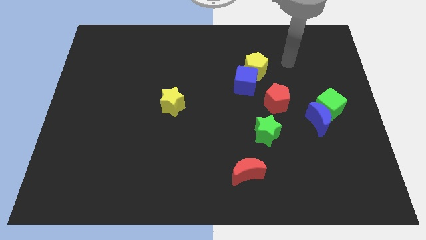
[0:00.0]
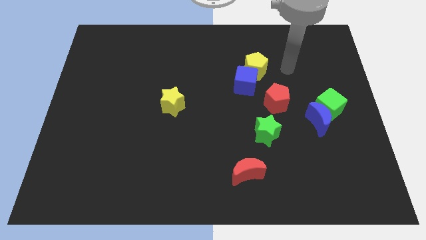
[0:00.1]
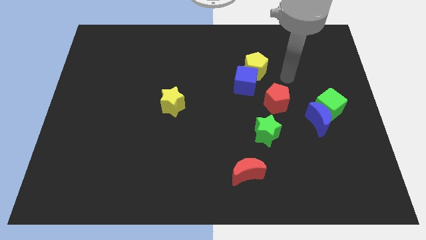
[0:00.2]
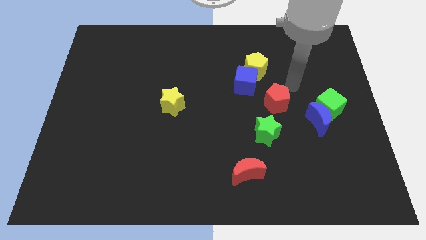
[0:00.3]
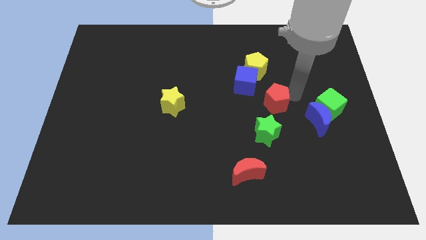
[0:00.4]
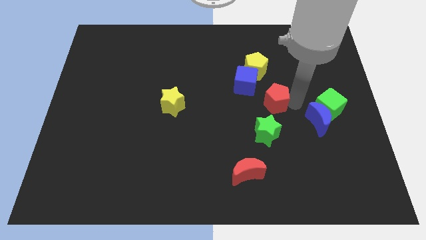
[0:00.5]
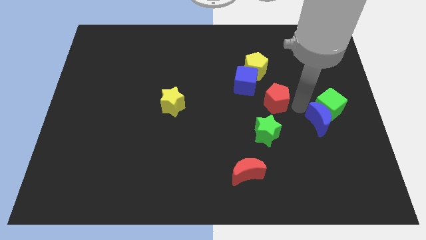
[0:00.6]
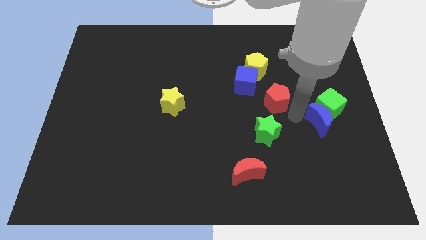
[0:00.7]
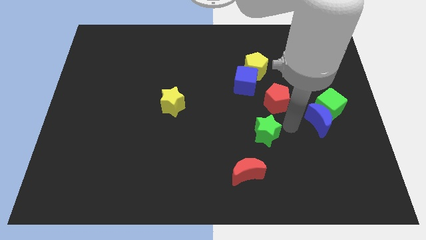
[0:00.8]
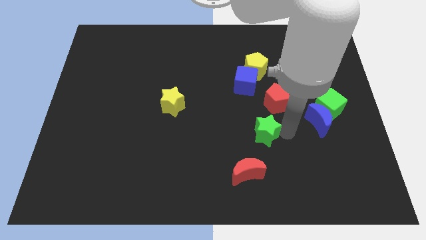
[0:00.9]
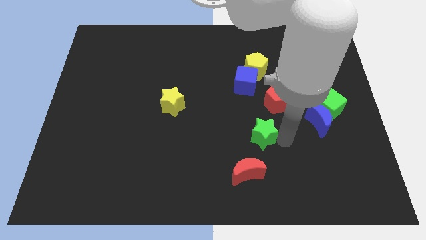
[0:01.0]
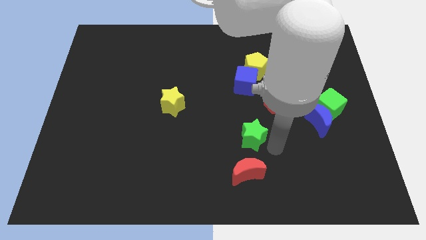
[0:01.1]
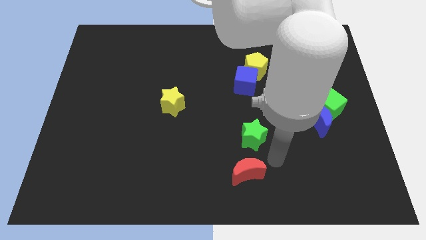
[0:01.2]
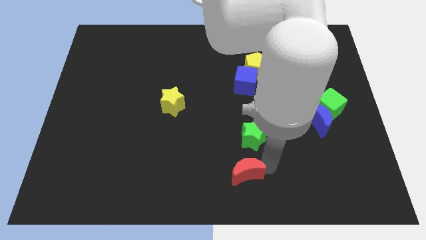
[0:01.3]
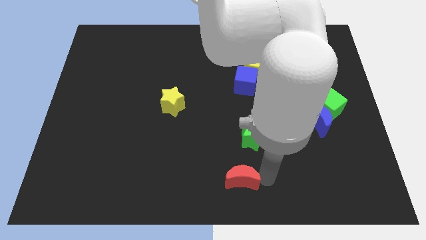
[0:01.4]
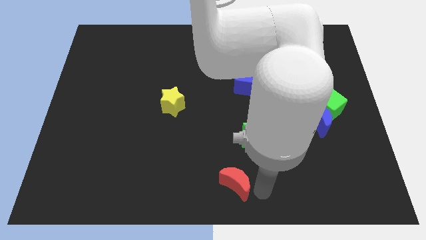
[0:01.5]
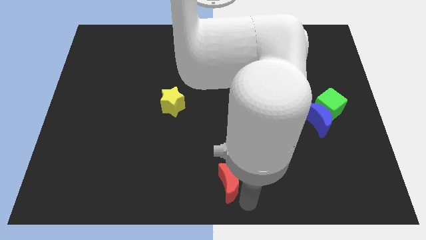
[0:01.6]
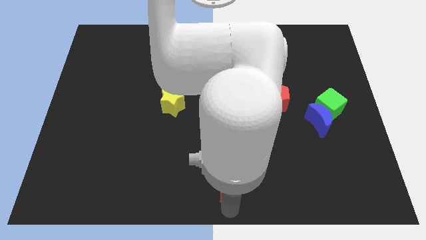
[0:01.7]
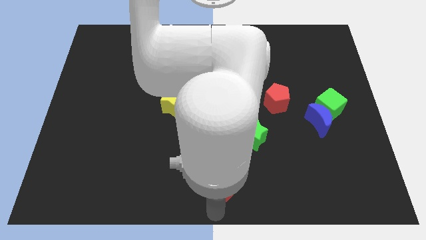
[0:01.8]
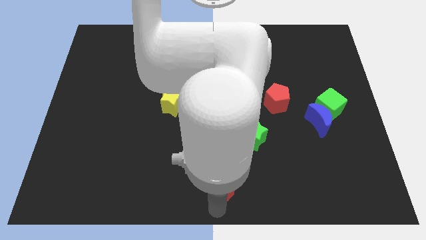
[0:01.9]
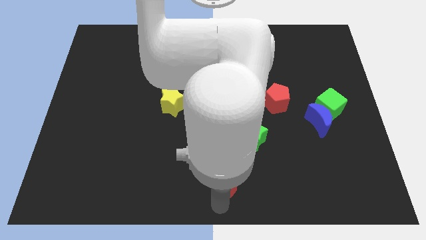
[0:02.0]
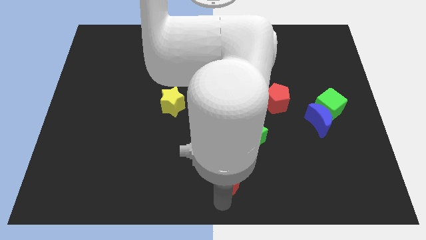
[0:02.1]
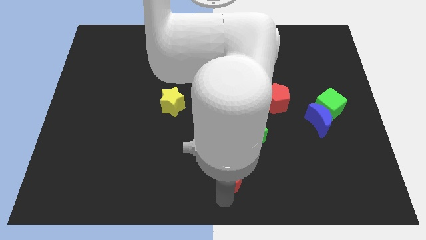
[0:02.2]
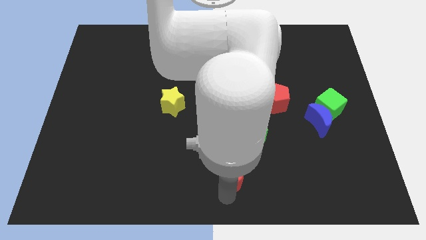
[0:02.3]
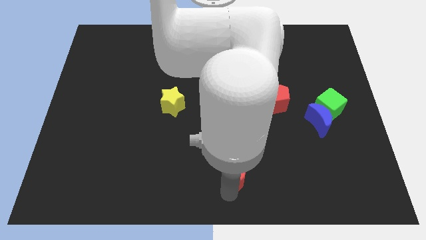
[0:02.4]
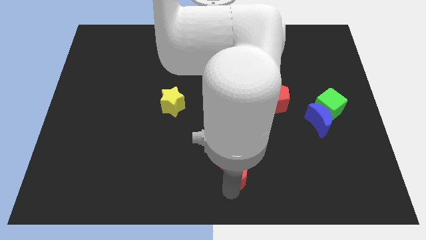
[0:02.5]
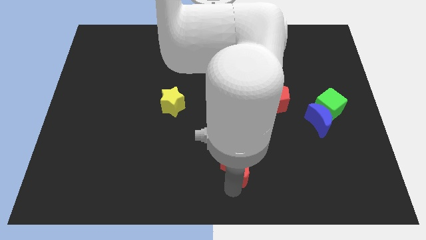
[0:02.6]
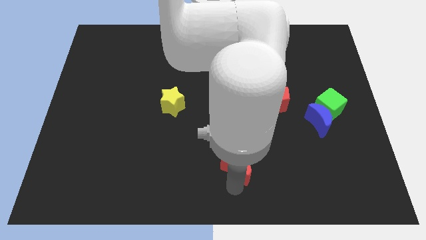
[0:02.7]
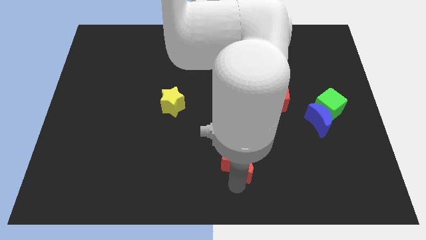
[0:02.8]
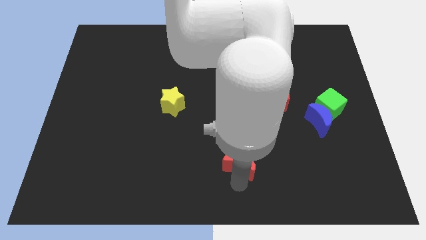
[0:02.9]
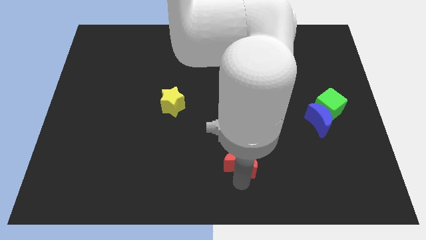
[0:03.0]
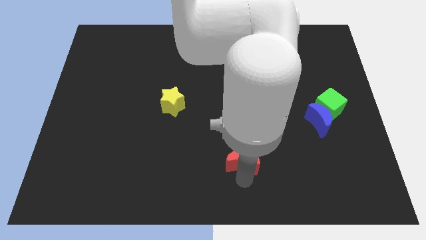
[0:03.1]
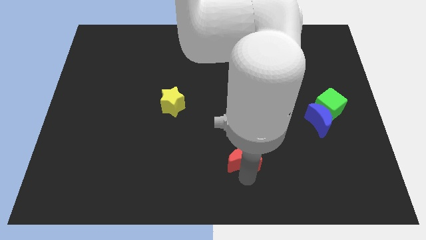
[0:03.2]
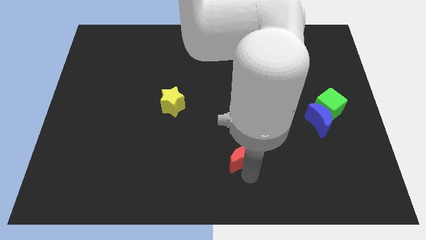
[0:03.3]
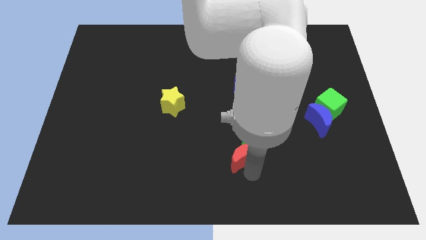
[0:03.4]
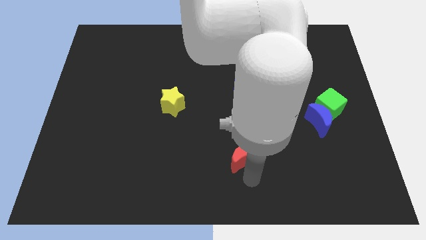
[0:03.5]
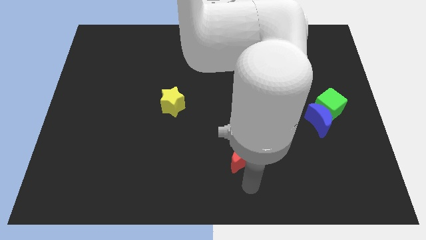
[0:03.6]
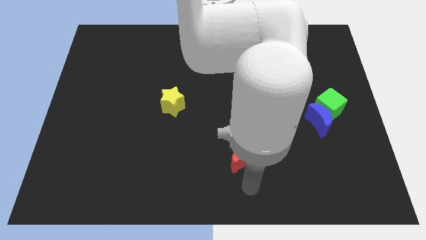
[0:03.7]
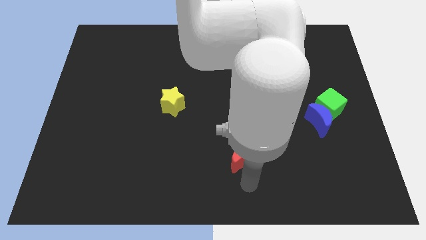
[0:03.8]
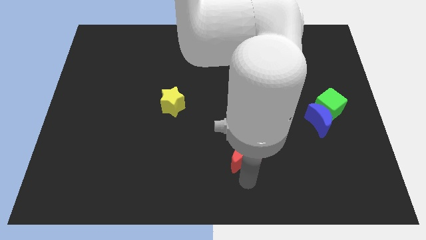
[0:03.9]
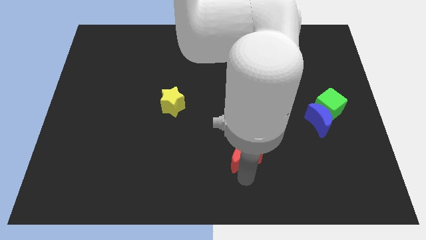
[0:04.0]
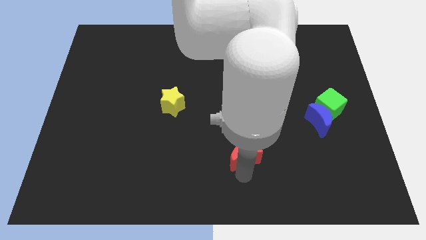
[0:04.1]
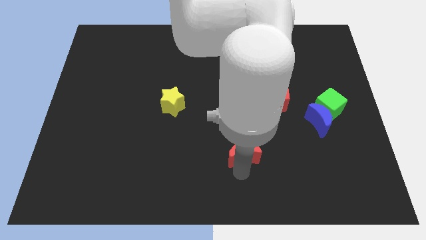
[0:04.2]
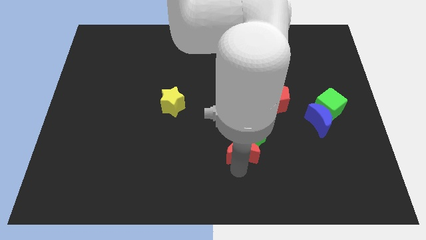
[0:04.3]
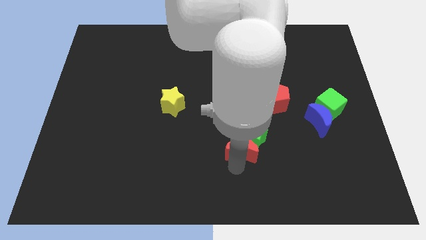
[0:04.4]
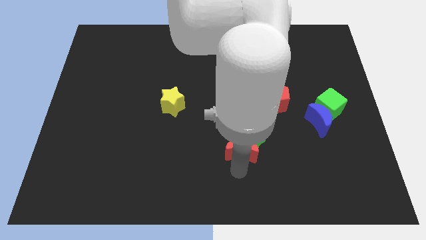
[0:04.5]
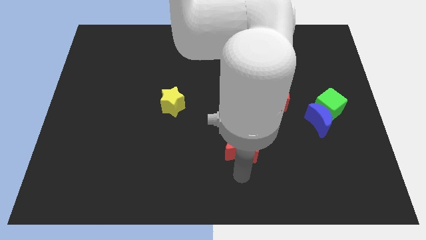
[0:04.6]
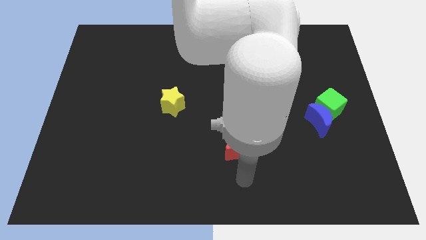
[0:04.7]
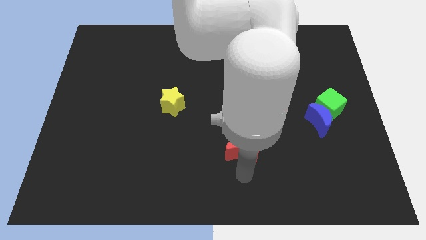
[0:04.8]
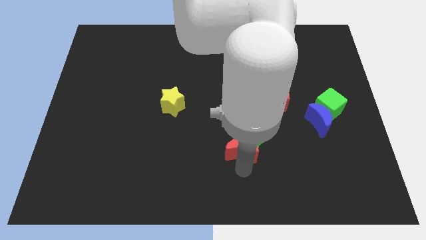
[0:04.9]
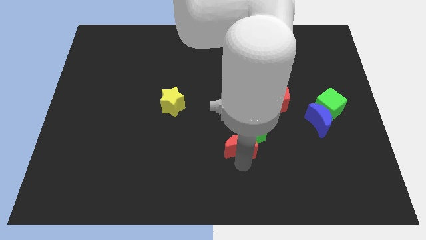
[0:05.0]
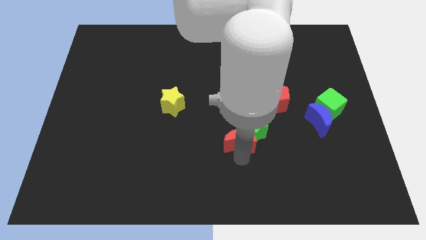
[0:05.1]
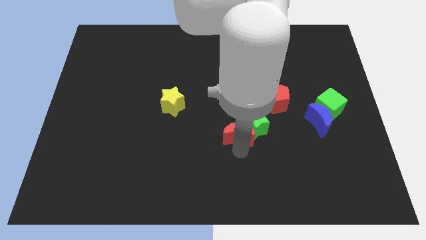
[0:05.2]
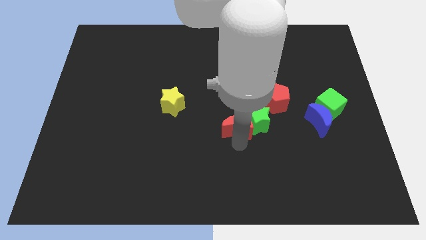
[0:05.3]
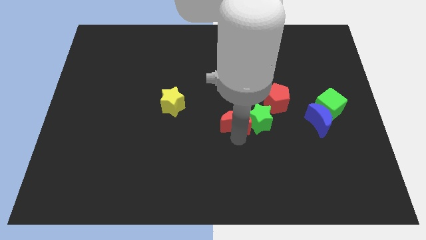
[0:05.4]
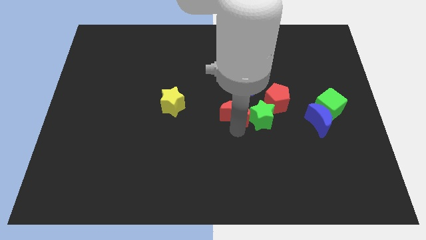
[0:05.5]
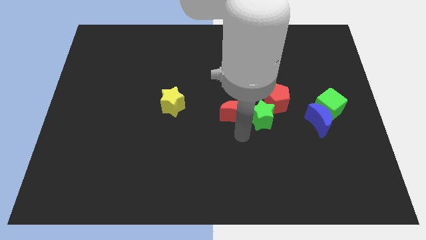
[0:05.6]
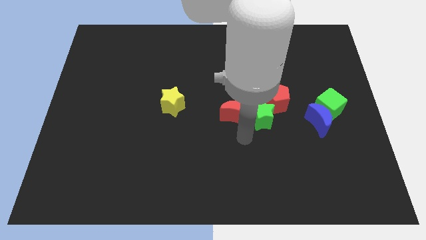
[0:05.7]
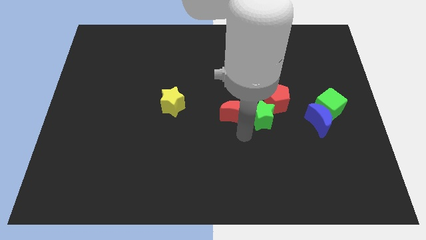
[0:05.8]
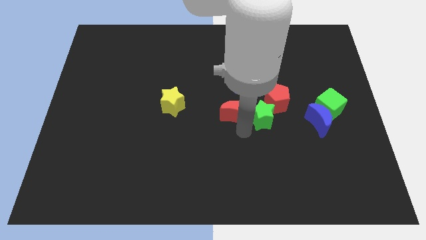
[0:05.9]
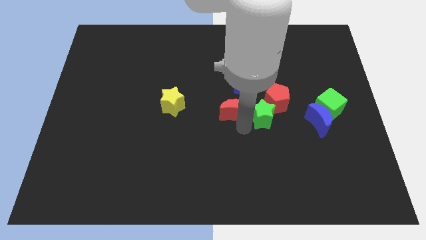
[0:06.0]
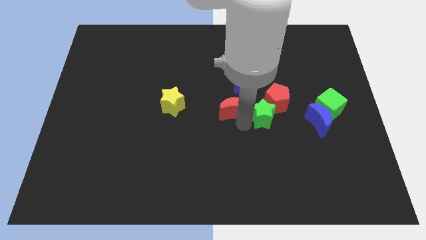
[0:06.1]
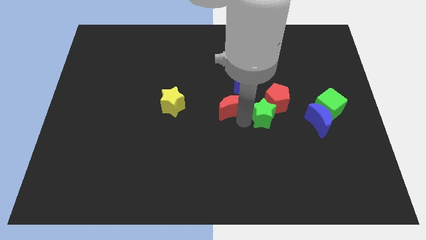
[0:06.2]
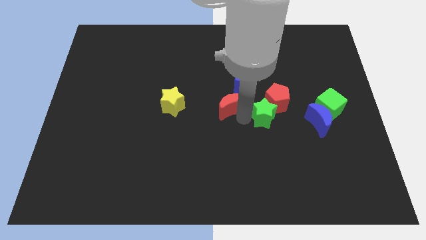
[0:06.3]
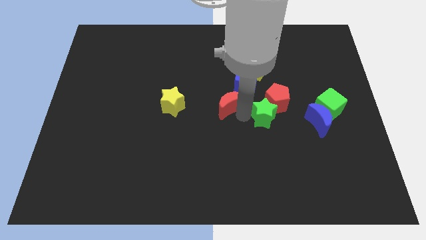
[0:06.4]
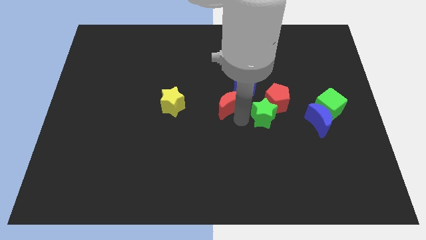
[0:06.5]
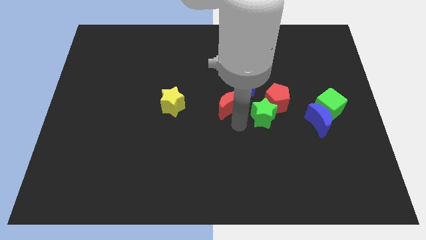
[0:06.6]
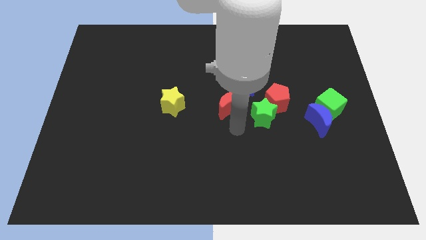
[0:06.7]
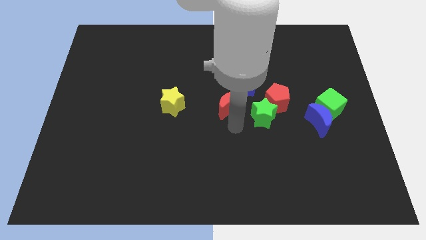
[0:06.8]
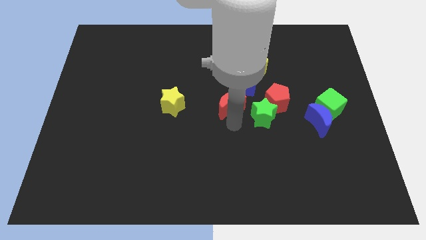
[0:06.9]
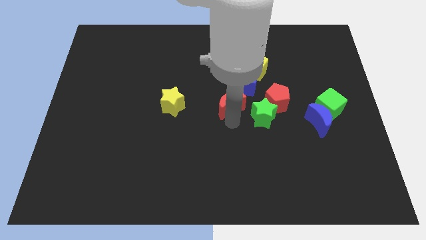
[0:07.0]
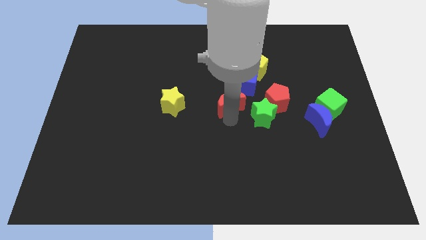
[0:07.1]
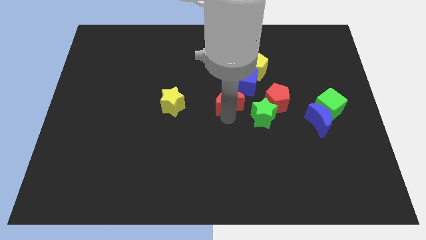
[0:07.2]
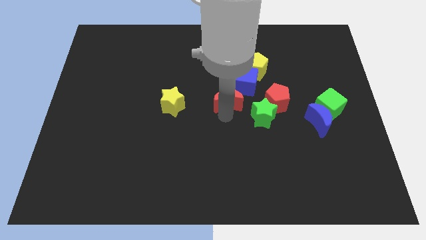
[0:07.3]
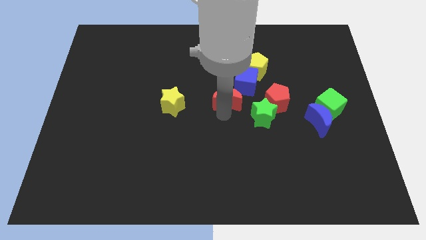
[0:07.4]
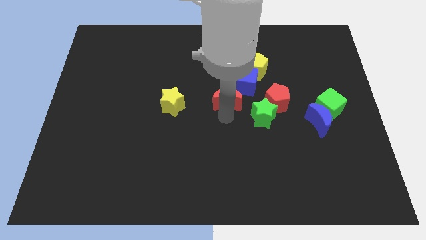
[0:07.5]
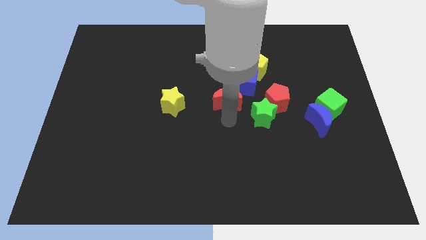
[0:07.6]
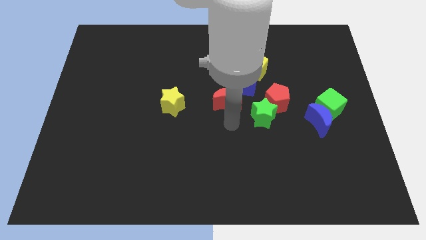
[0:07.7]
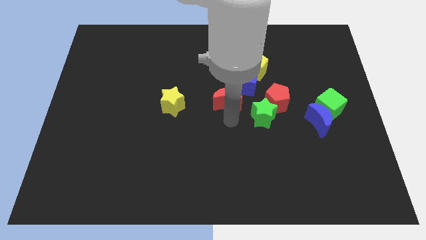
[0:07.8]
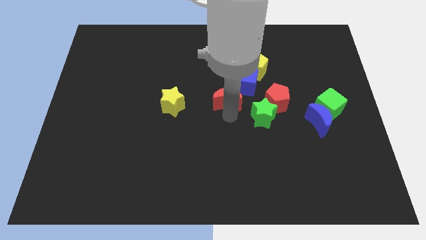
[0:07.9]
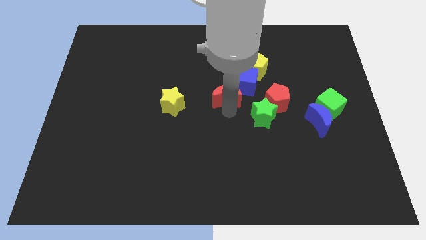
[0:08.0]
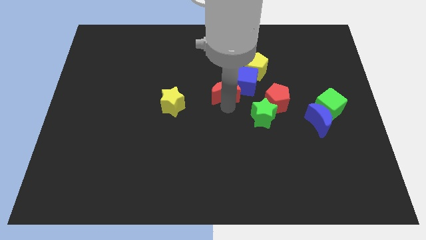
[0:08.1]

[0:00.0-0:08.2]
move the red moon up
